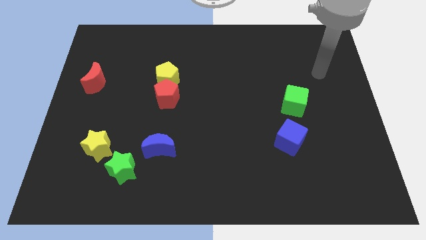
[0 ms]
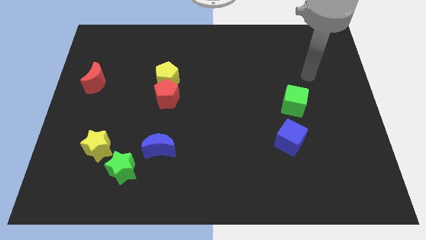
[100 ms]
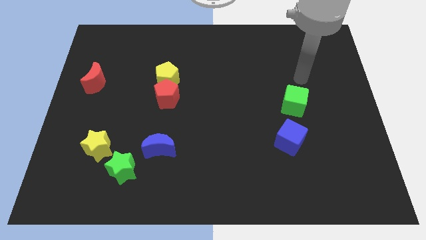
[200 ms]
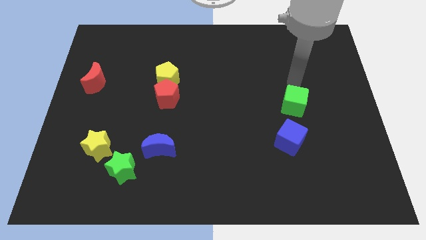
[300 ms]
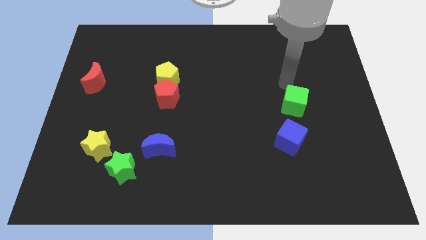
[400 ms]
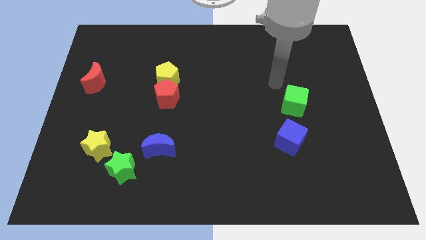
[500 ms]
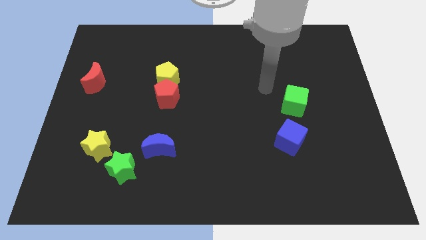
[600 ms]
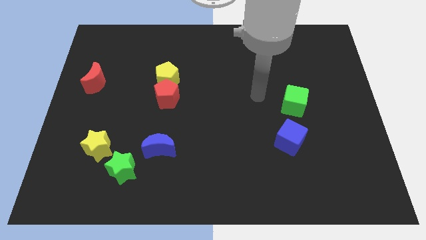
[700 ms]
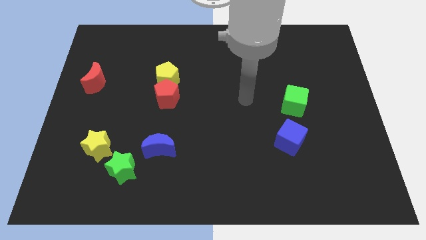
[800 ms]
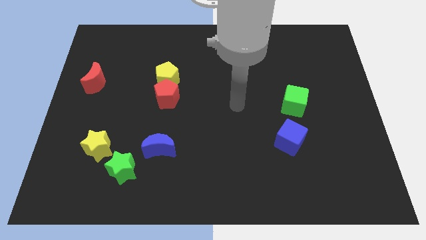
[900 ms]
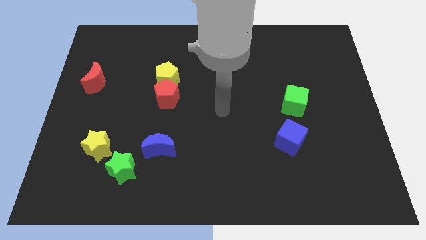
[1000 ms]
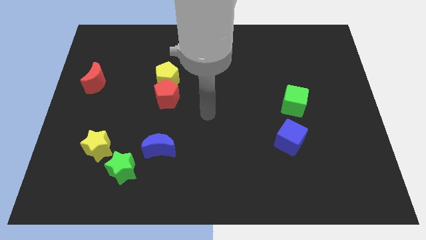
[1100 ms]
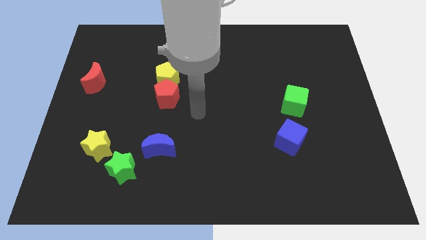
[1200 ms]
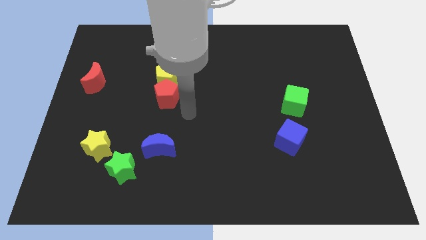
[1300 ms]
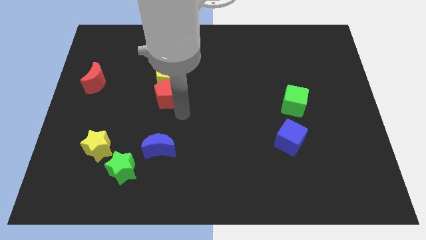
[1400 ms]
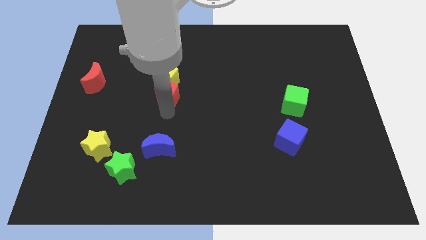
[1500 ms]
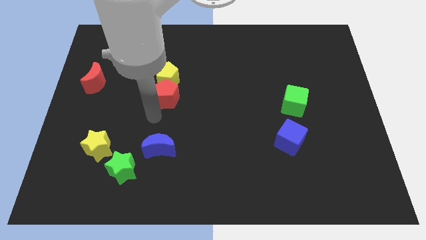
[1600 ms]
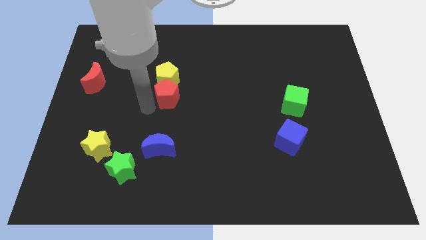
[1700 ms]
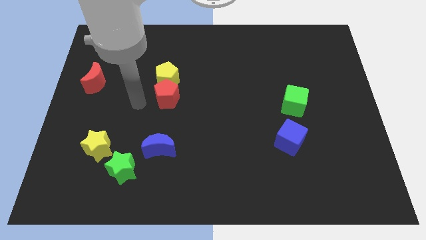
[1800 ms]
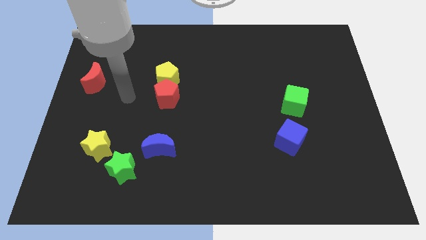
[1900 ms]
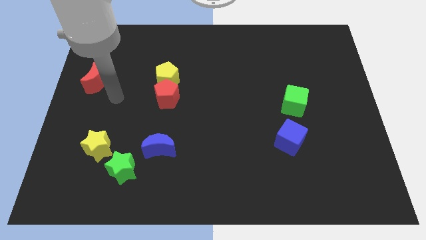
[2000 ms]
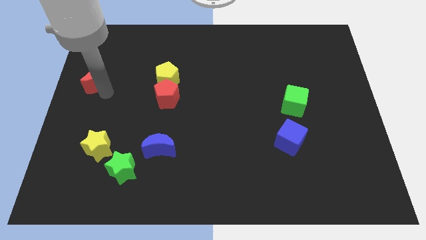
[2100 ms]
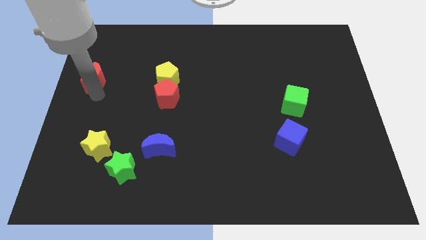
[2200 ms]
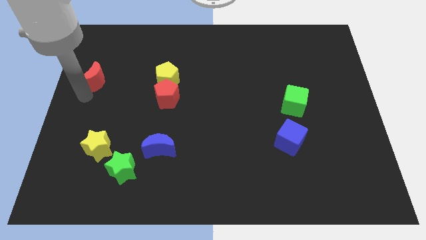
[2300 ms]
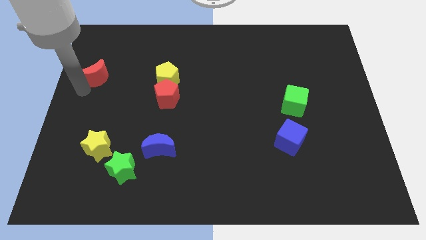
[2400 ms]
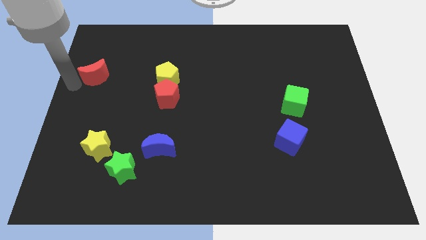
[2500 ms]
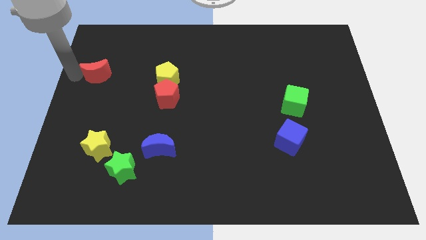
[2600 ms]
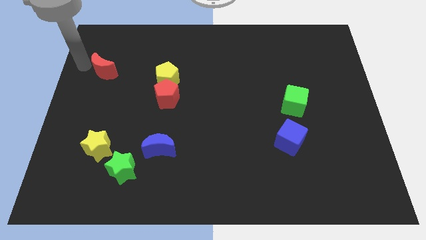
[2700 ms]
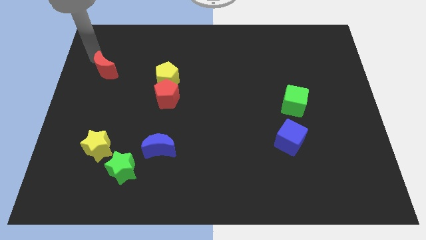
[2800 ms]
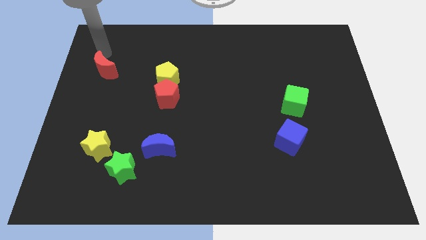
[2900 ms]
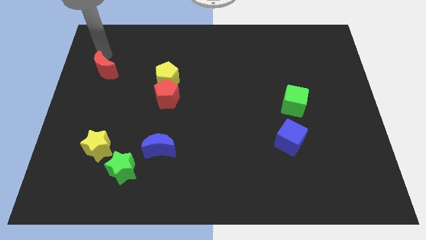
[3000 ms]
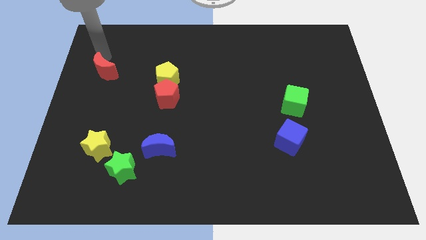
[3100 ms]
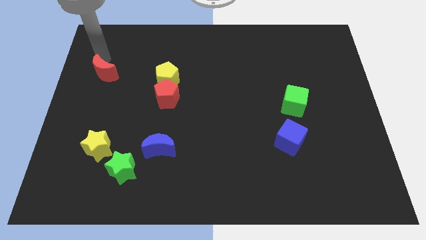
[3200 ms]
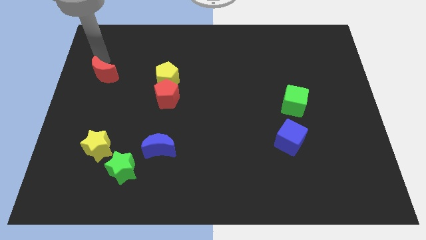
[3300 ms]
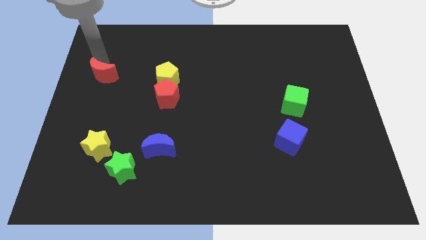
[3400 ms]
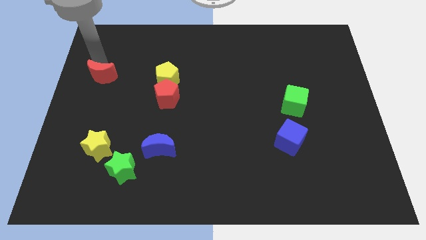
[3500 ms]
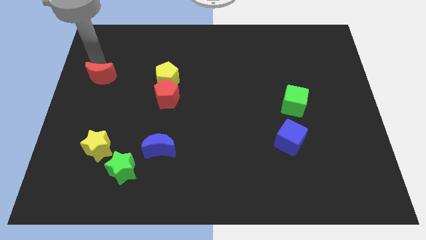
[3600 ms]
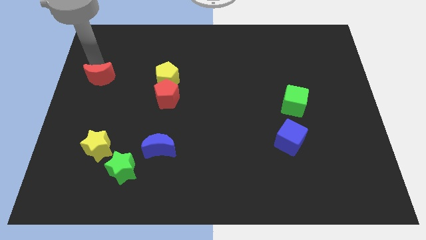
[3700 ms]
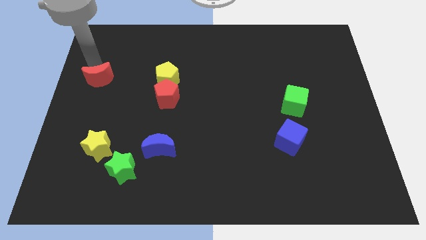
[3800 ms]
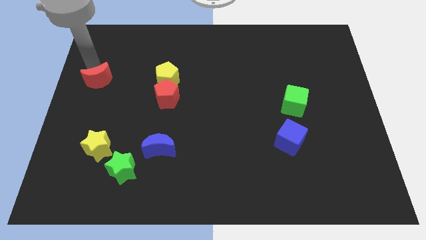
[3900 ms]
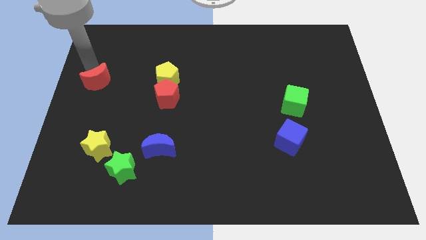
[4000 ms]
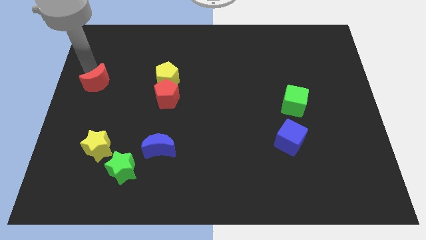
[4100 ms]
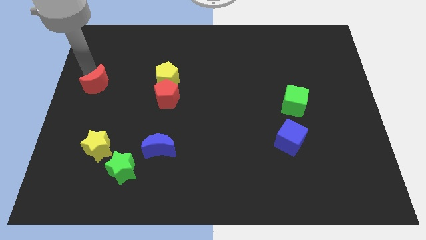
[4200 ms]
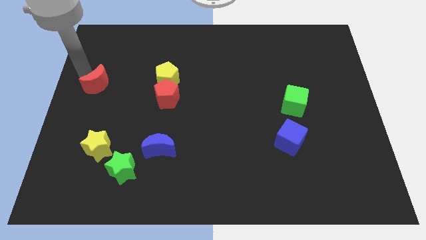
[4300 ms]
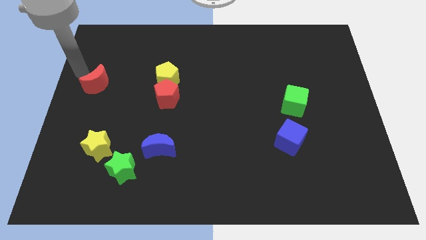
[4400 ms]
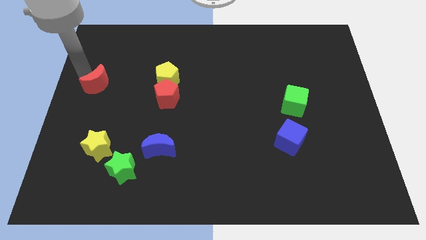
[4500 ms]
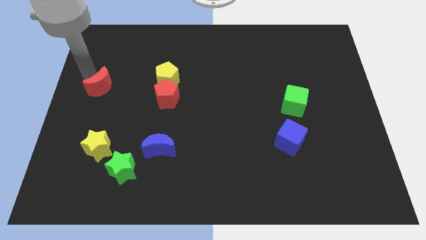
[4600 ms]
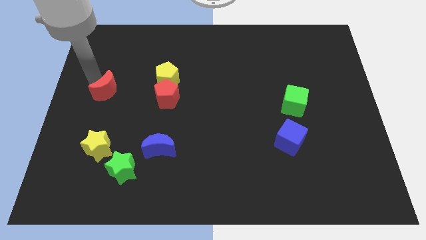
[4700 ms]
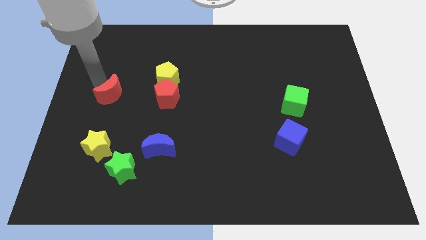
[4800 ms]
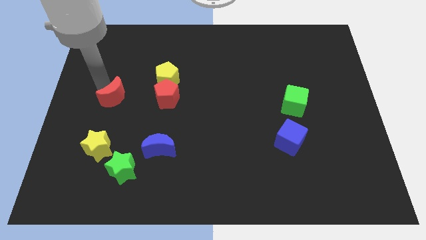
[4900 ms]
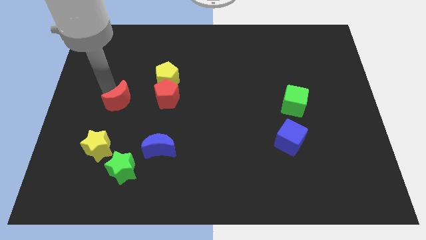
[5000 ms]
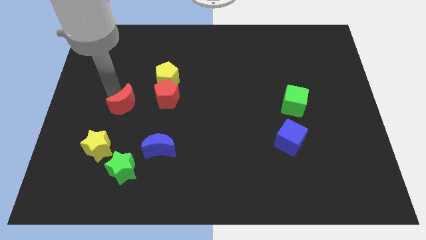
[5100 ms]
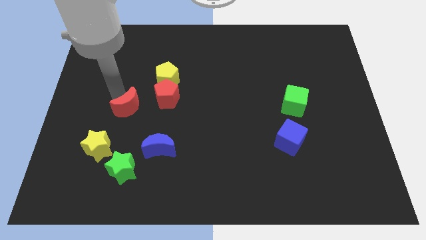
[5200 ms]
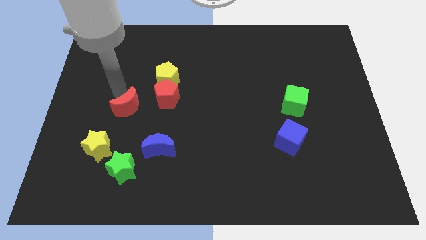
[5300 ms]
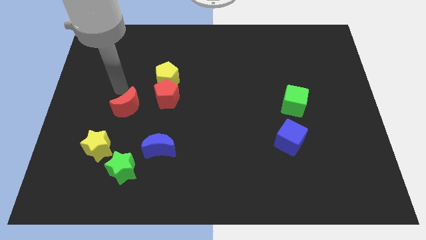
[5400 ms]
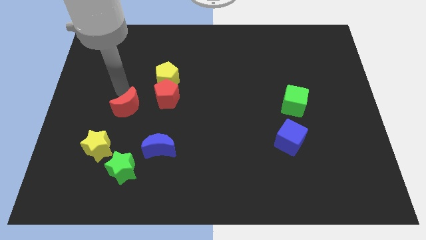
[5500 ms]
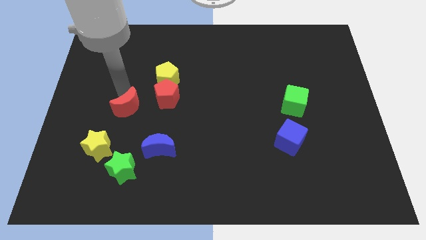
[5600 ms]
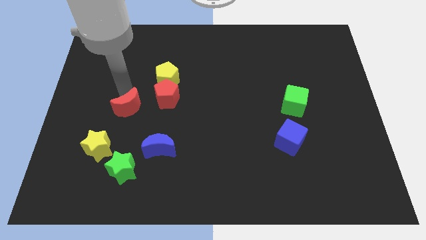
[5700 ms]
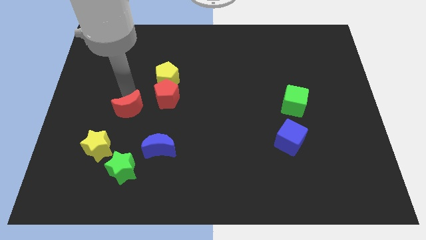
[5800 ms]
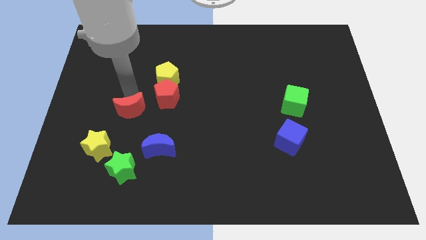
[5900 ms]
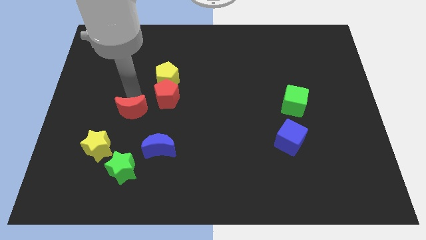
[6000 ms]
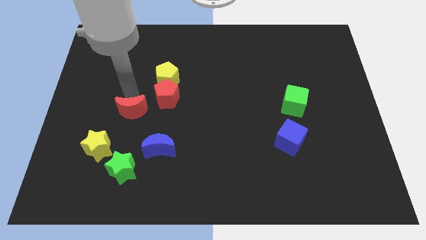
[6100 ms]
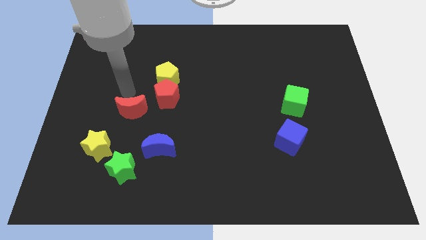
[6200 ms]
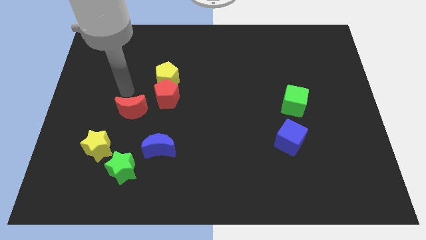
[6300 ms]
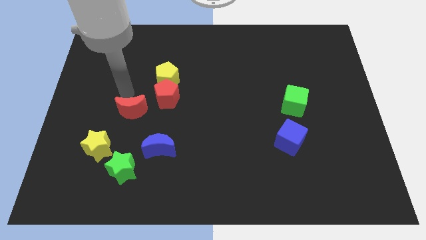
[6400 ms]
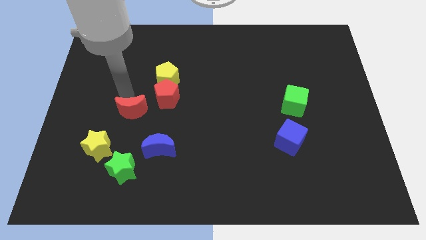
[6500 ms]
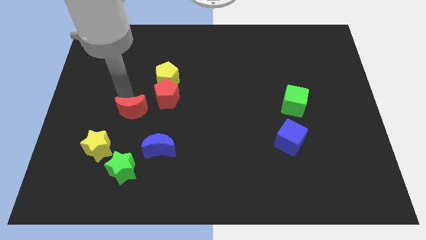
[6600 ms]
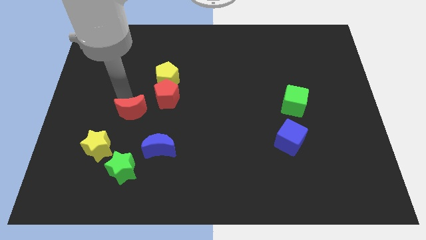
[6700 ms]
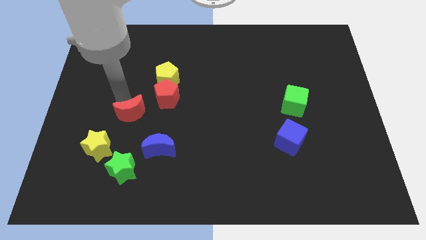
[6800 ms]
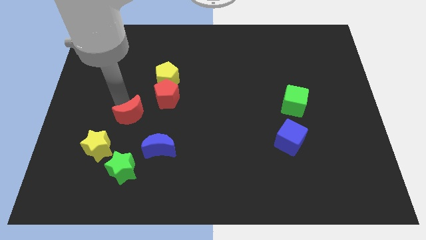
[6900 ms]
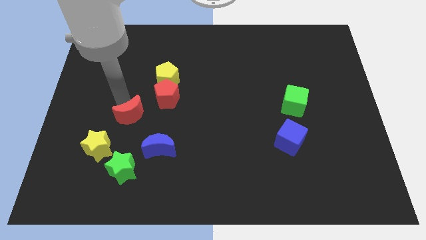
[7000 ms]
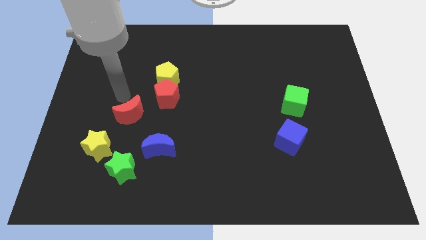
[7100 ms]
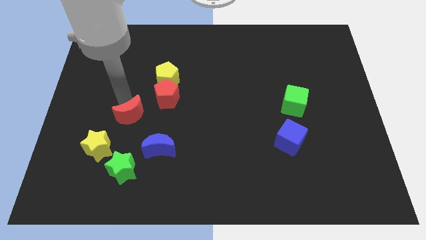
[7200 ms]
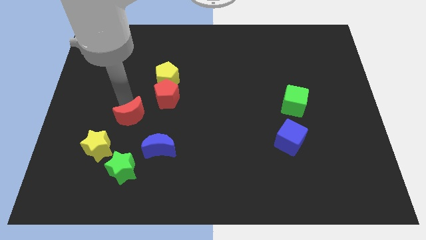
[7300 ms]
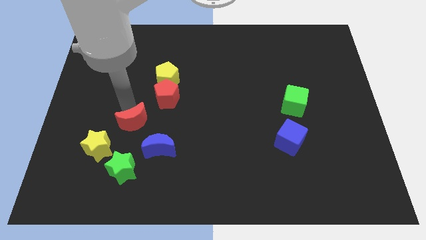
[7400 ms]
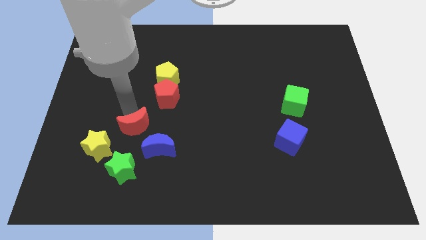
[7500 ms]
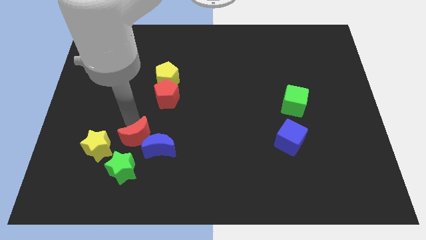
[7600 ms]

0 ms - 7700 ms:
put the red moon towards the blue moon
